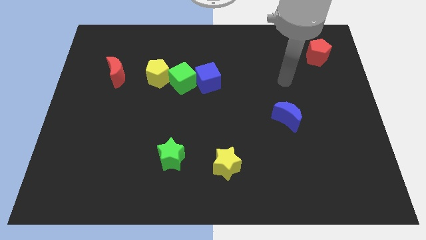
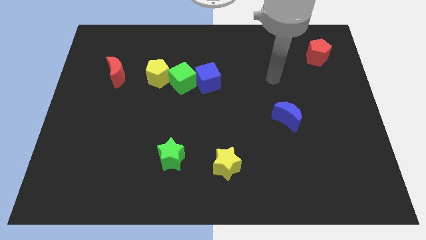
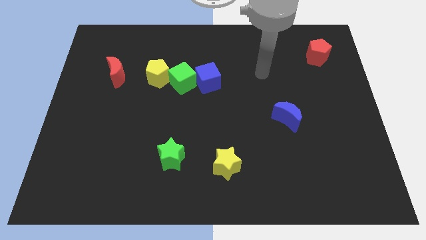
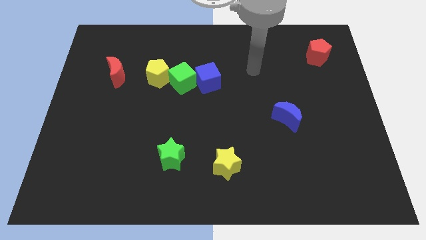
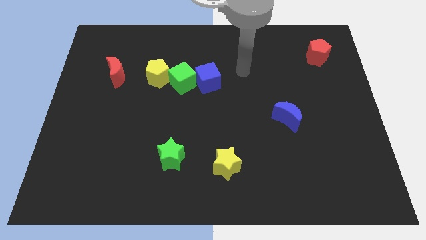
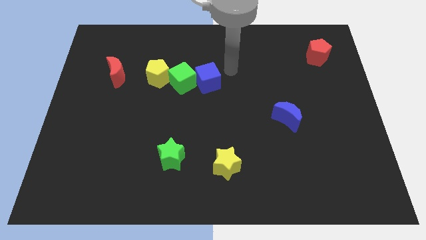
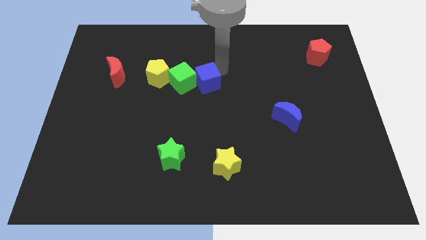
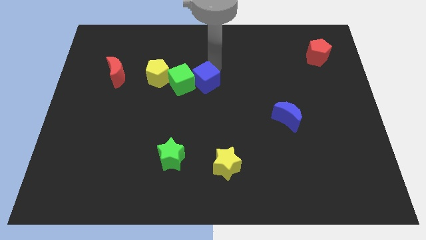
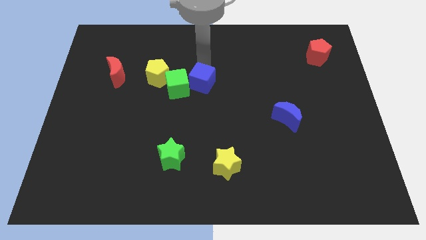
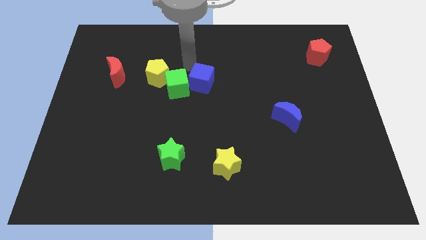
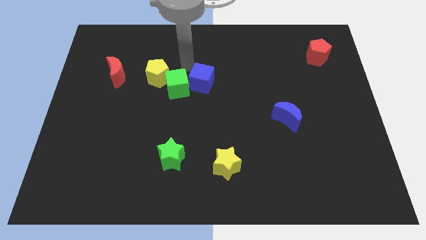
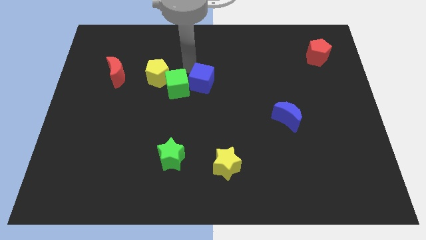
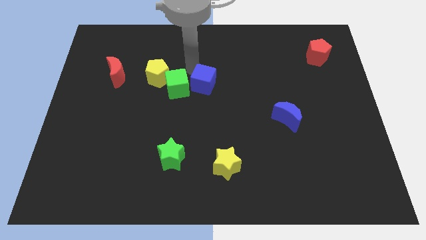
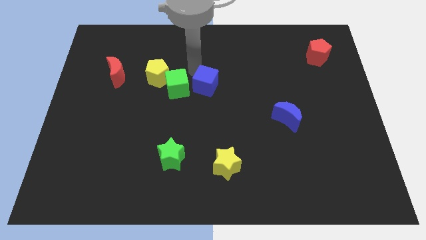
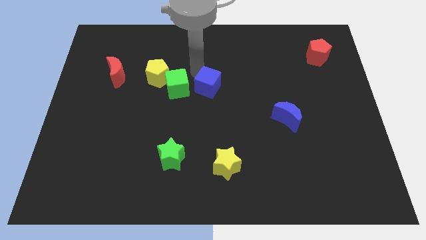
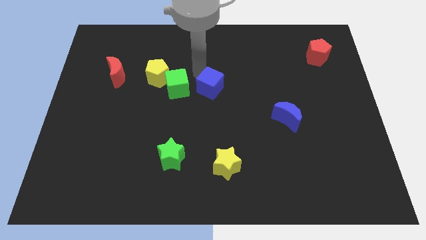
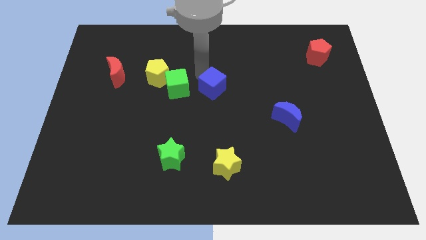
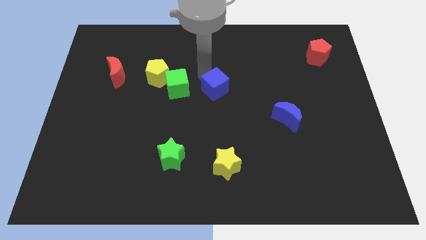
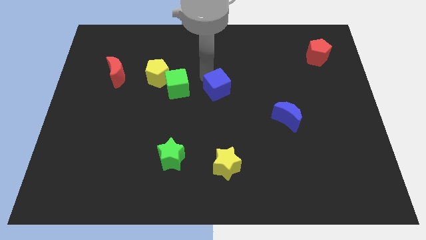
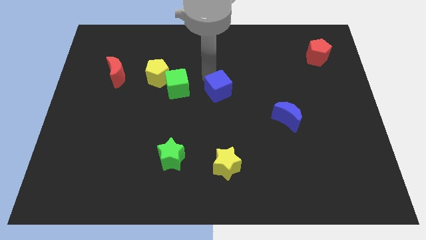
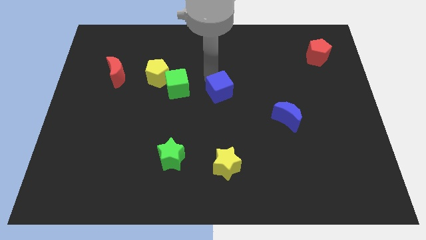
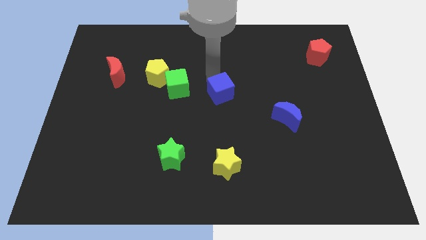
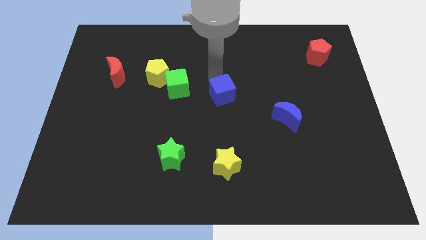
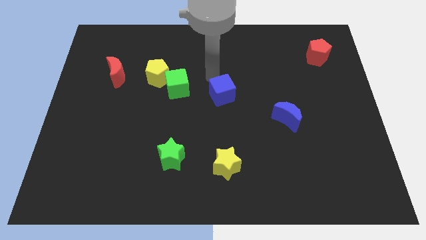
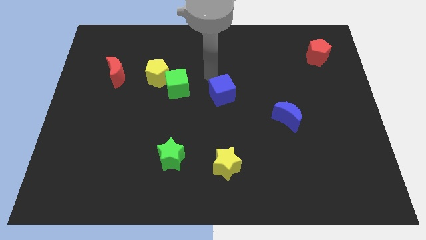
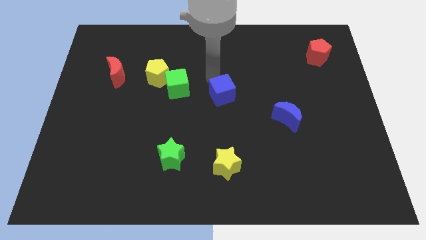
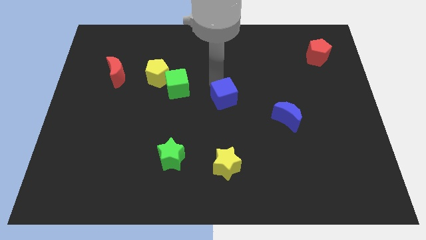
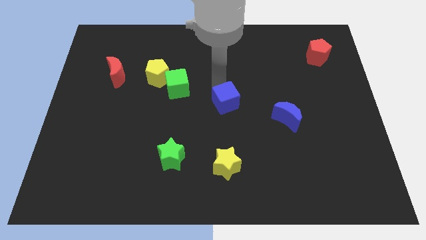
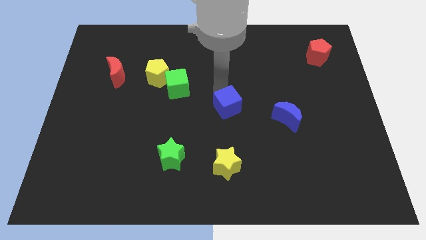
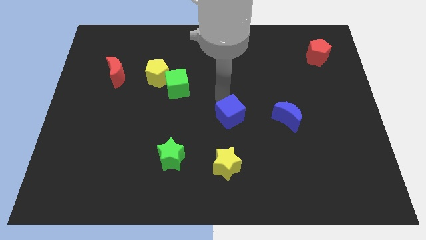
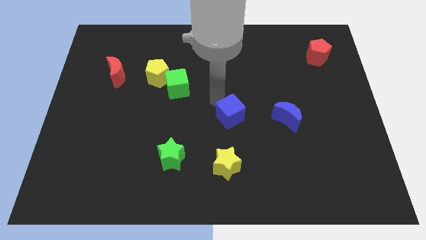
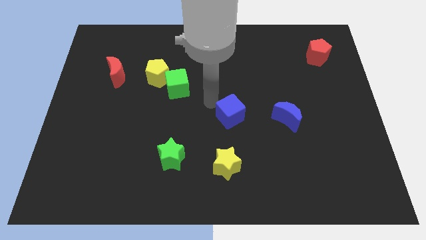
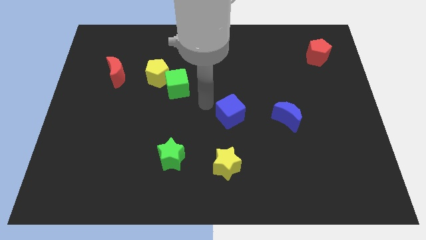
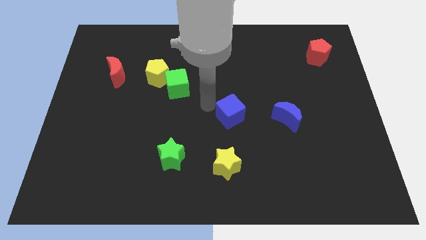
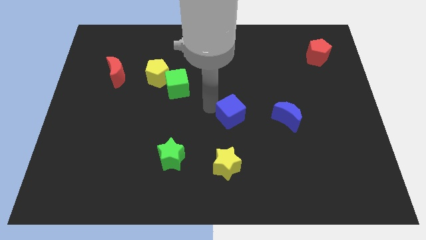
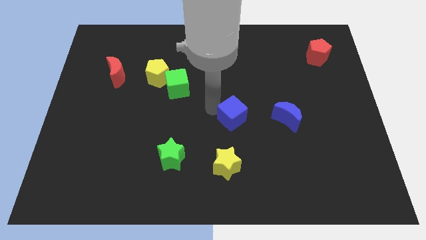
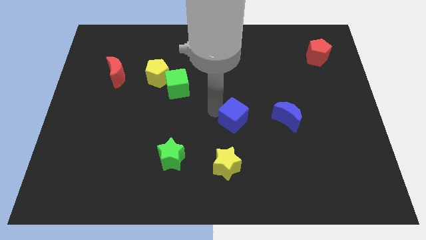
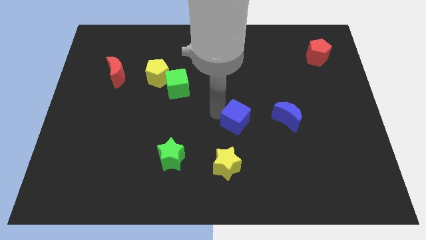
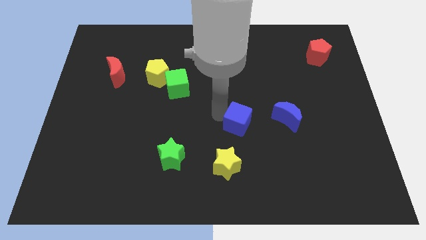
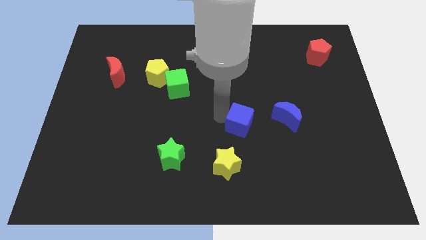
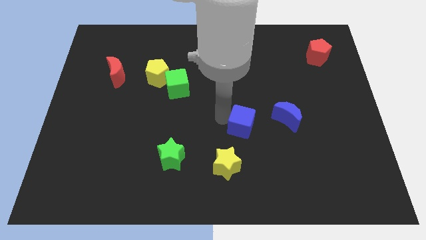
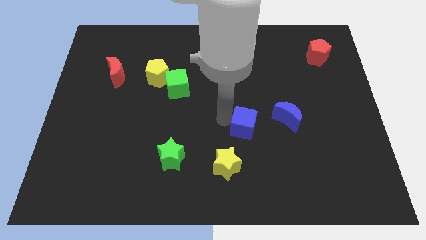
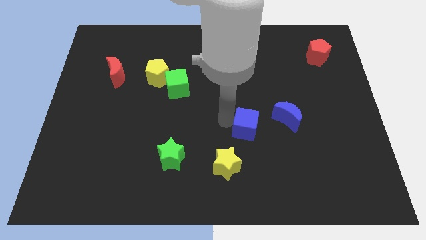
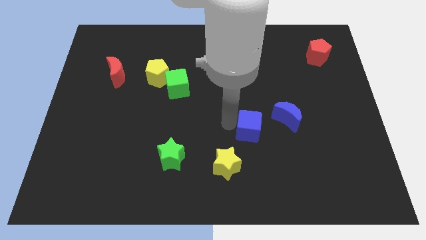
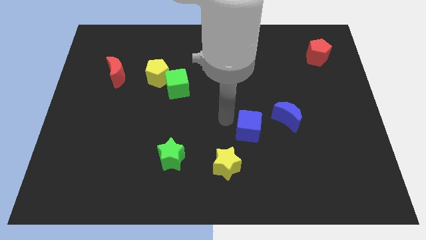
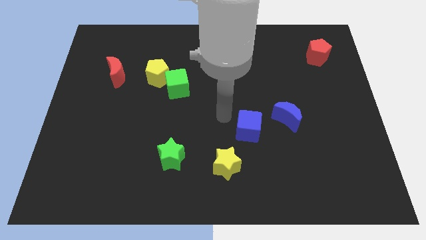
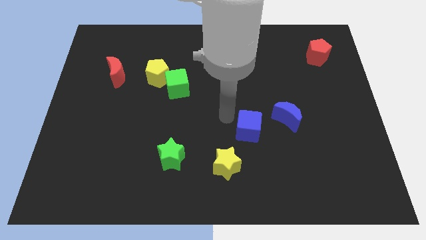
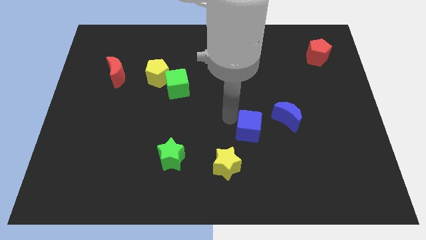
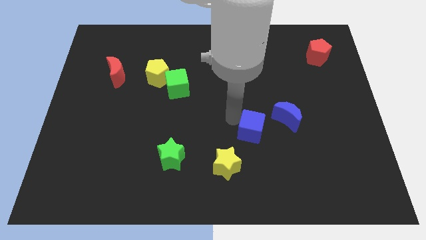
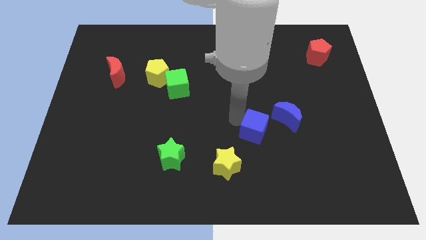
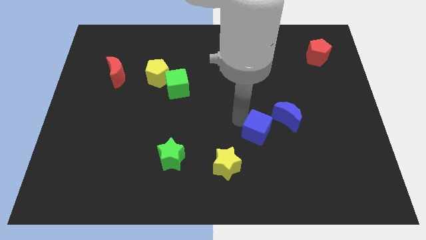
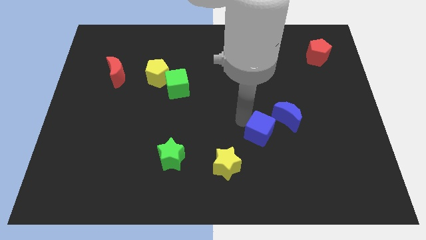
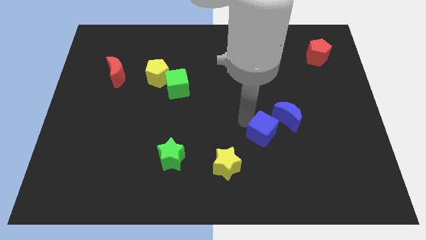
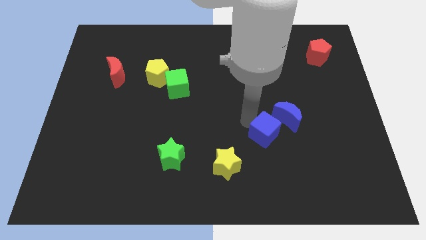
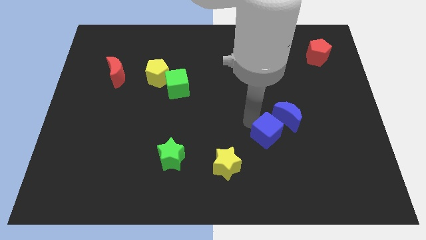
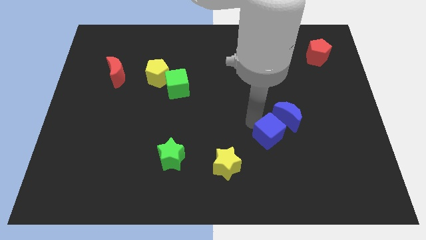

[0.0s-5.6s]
put the blue cube below the blue moon

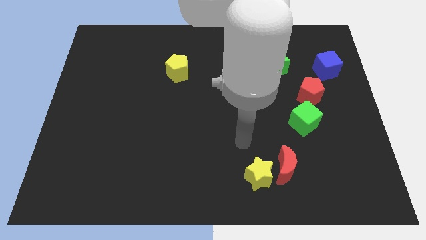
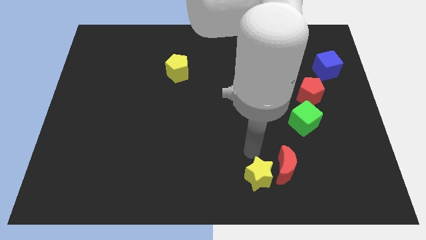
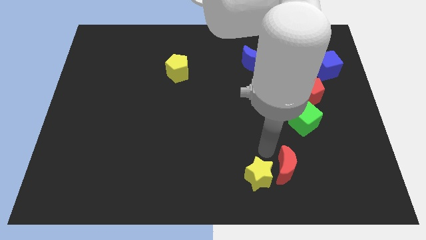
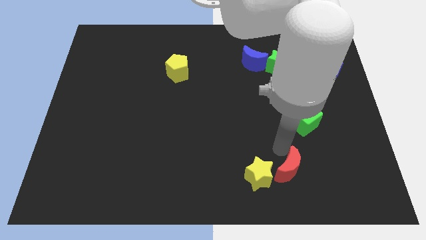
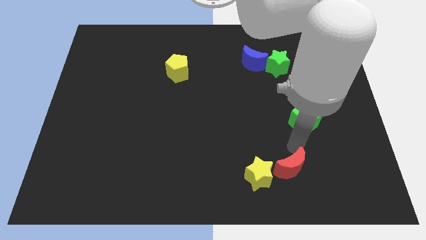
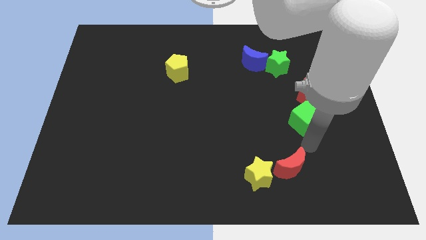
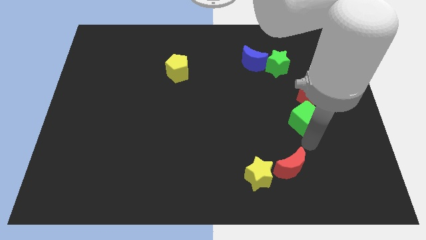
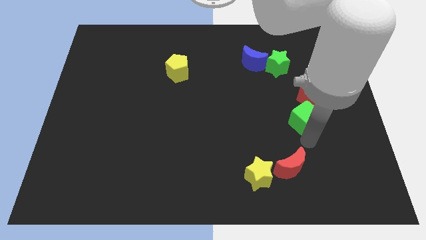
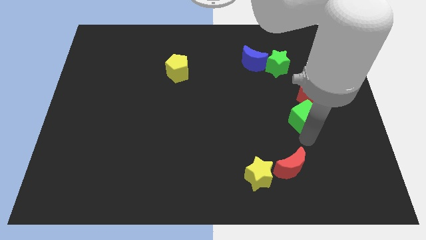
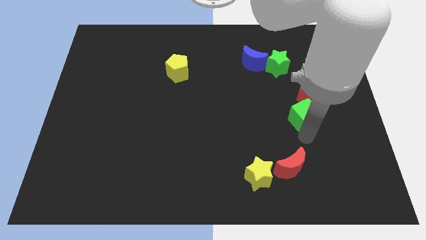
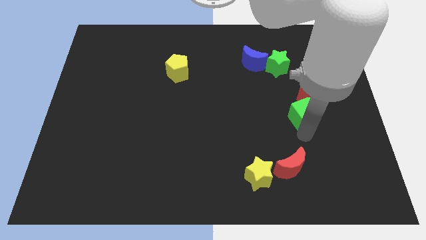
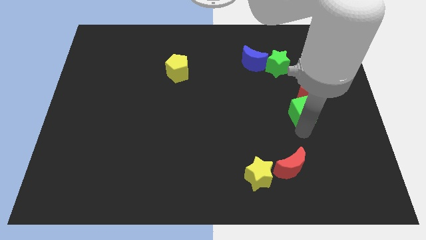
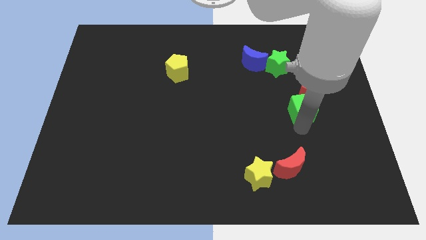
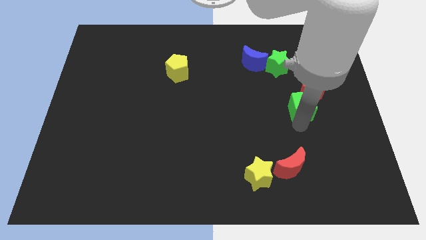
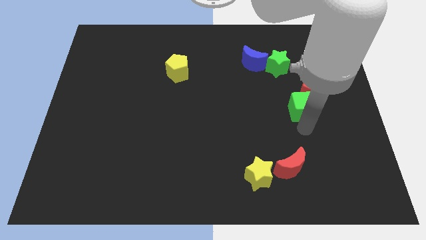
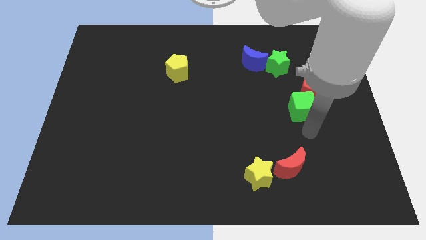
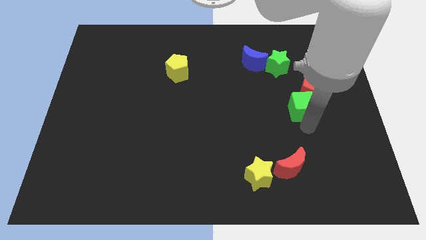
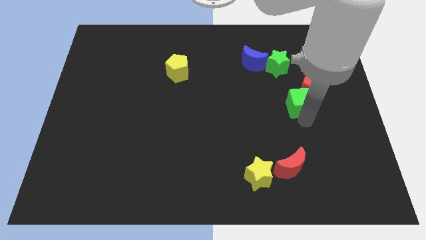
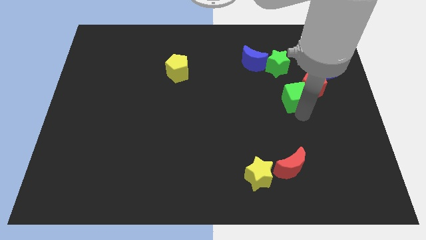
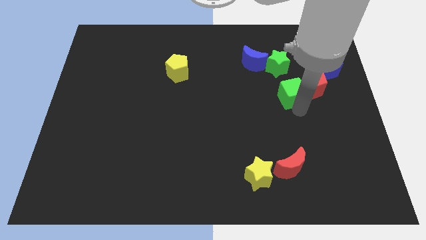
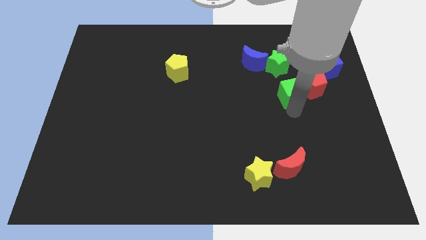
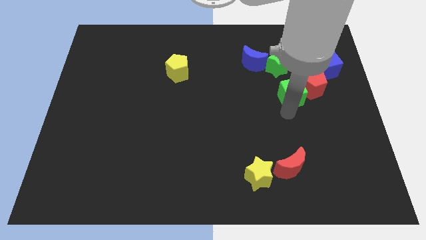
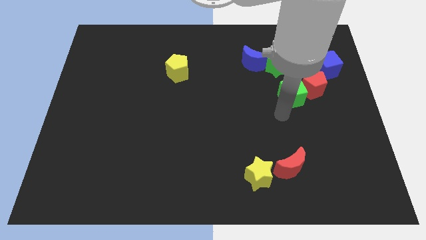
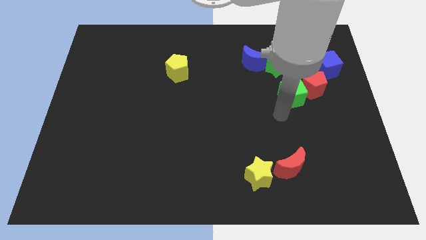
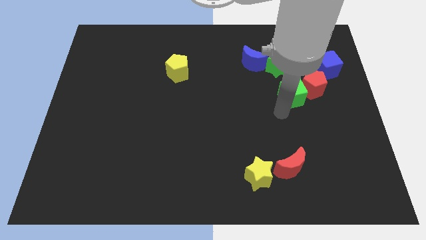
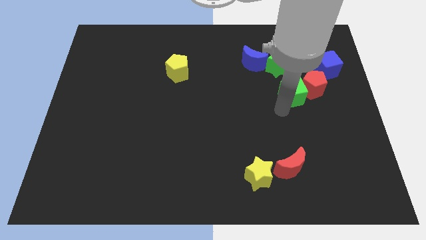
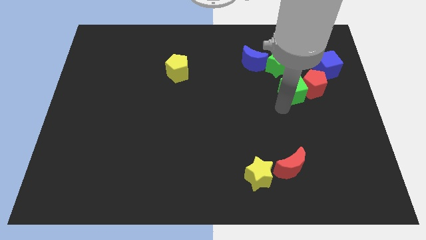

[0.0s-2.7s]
move the green cube to the bottom right side of the green star
